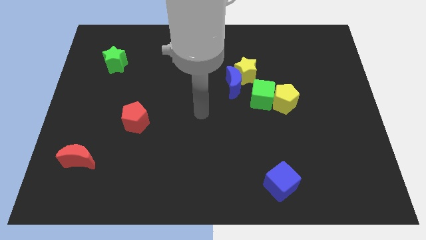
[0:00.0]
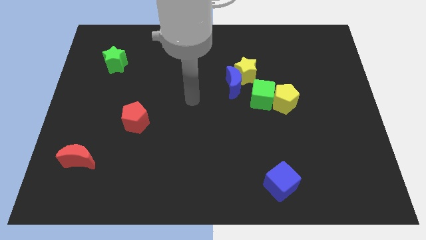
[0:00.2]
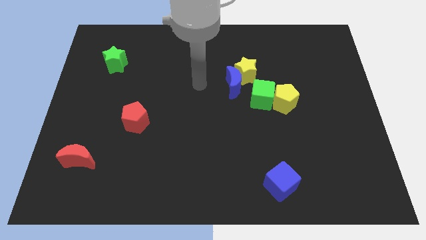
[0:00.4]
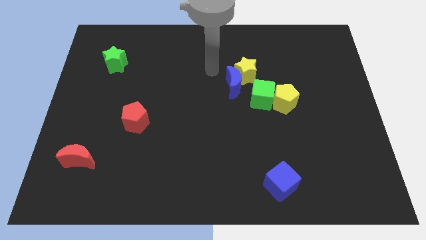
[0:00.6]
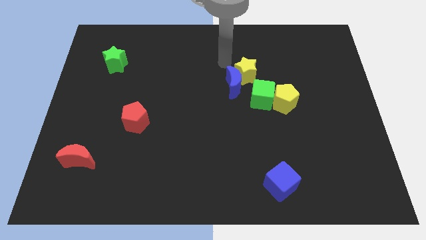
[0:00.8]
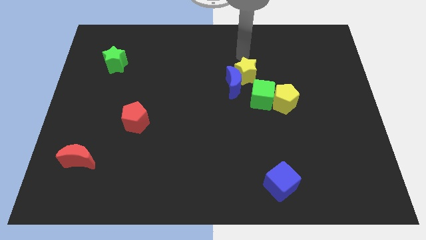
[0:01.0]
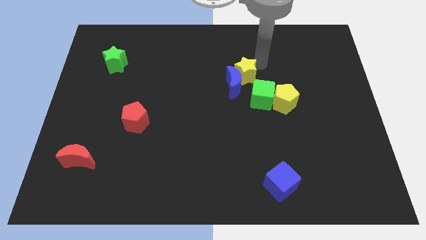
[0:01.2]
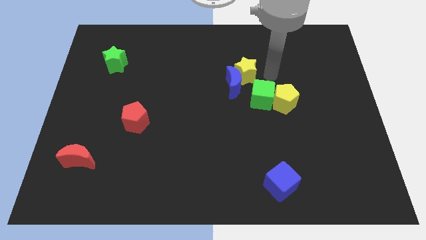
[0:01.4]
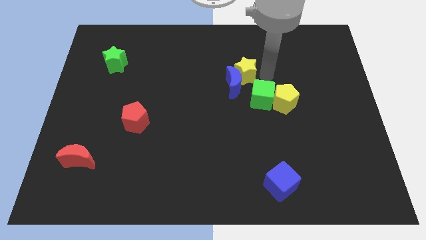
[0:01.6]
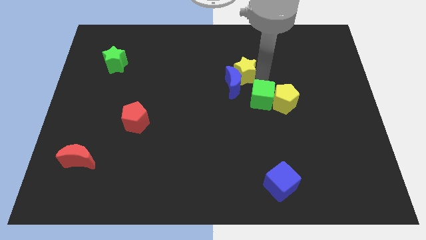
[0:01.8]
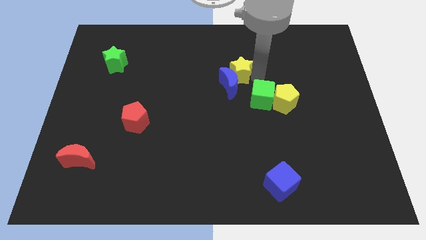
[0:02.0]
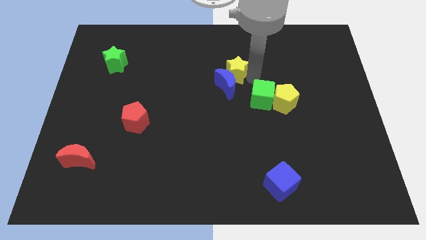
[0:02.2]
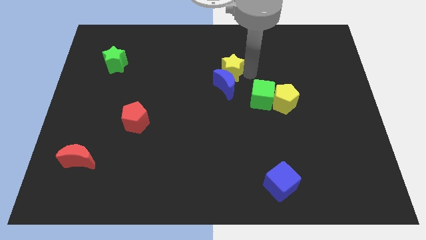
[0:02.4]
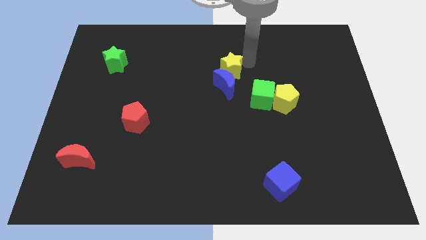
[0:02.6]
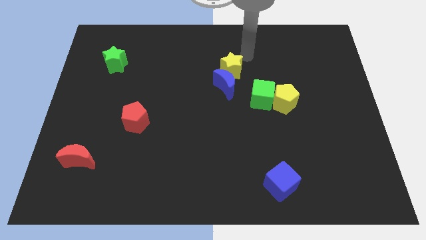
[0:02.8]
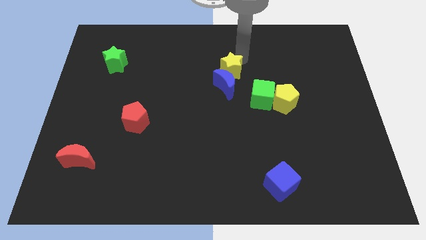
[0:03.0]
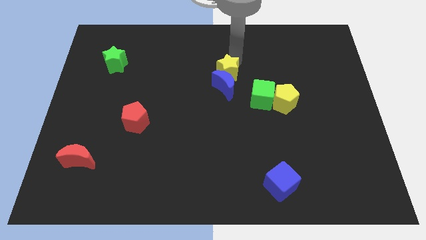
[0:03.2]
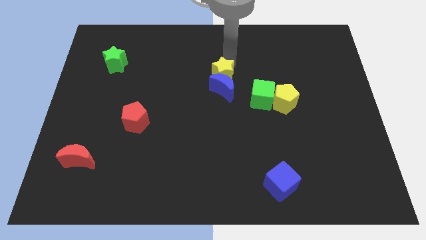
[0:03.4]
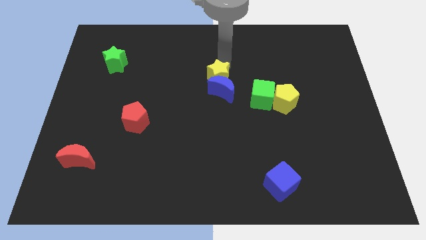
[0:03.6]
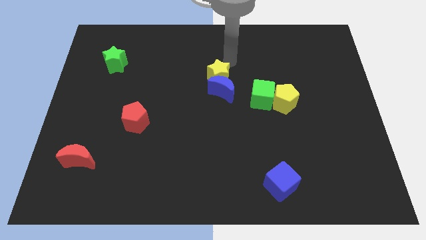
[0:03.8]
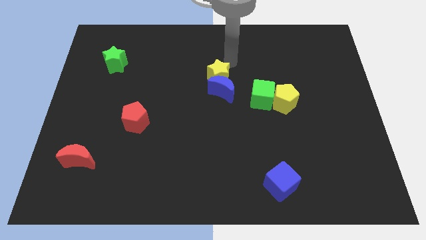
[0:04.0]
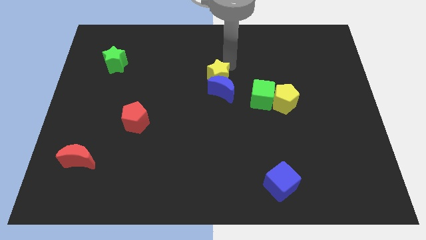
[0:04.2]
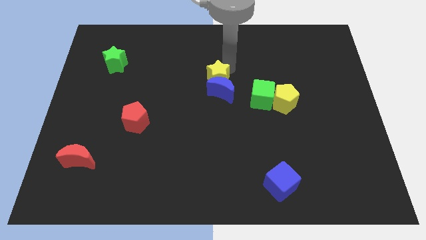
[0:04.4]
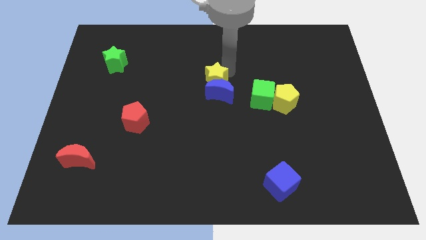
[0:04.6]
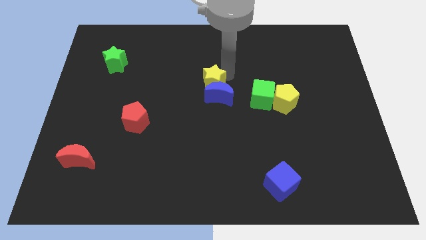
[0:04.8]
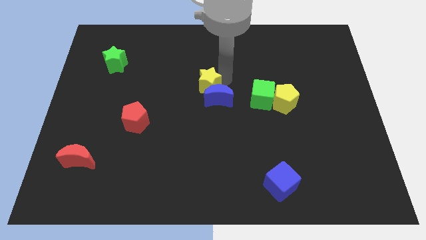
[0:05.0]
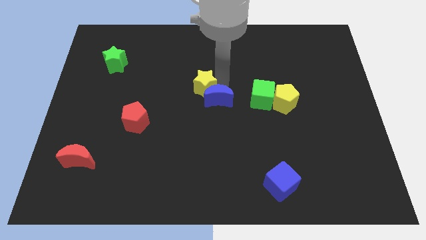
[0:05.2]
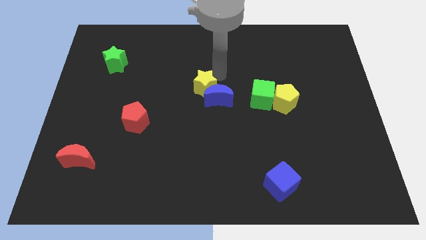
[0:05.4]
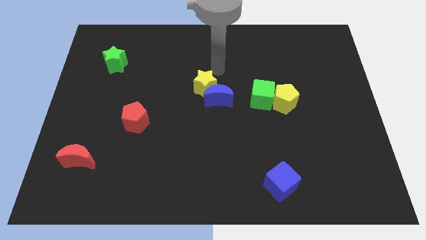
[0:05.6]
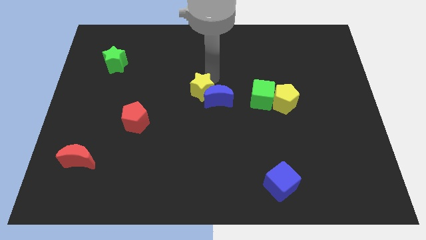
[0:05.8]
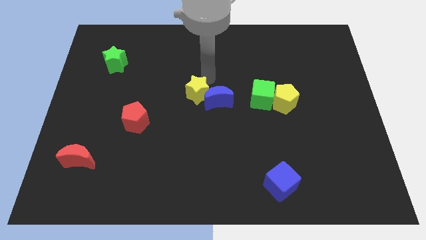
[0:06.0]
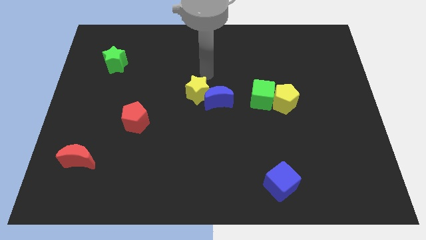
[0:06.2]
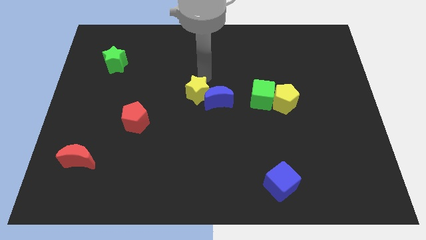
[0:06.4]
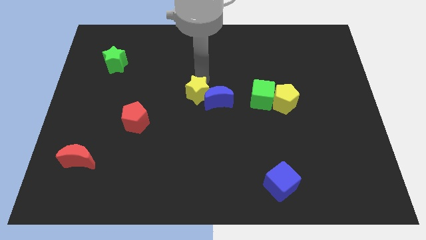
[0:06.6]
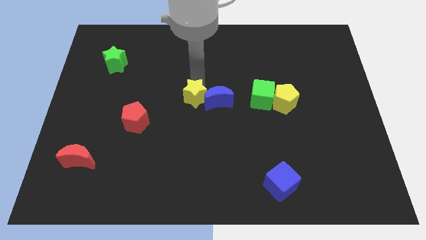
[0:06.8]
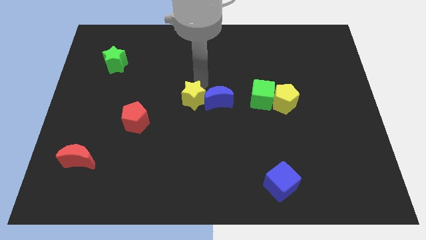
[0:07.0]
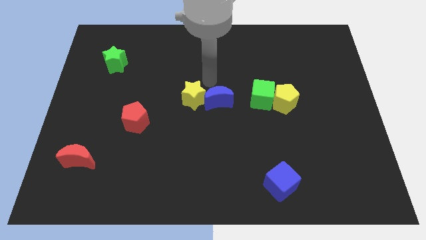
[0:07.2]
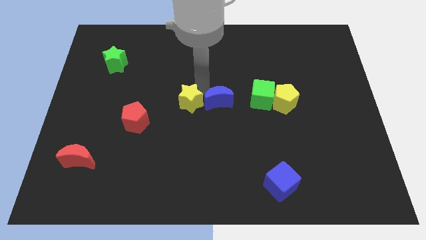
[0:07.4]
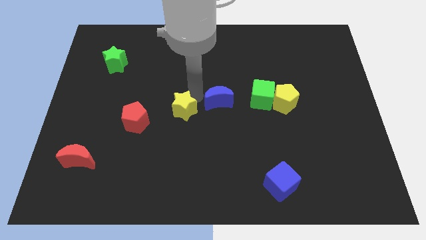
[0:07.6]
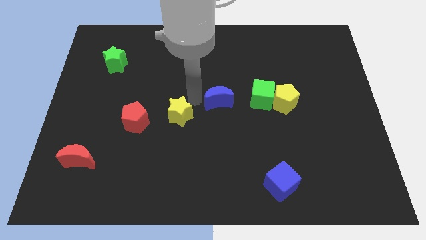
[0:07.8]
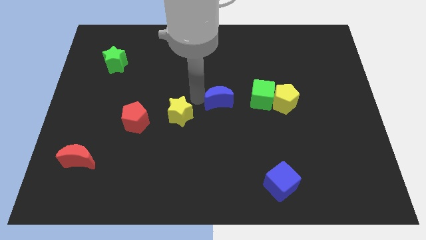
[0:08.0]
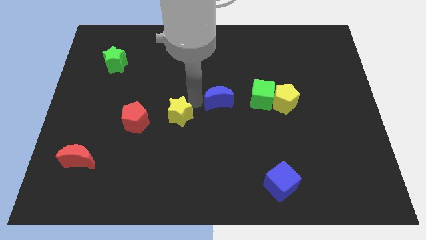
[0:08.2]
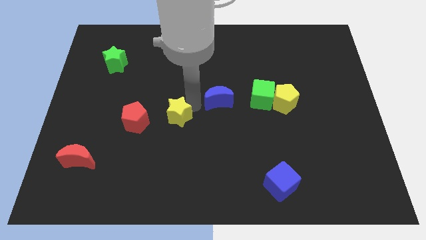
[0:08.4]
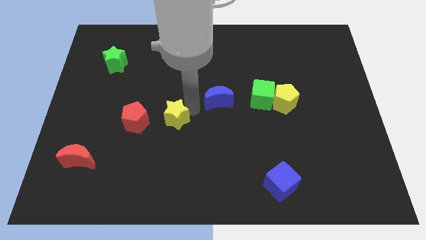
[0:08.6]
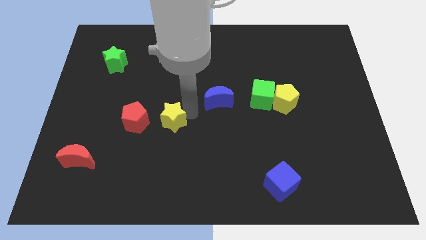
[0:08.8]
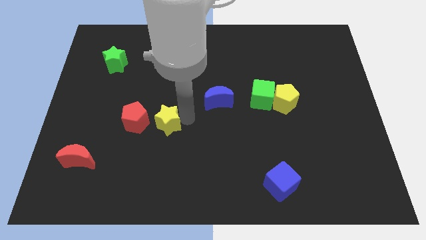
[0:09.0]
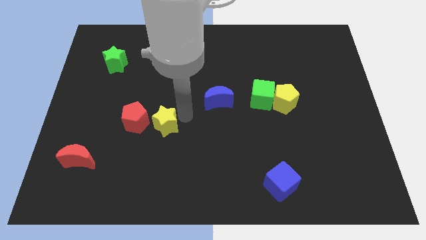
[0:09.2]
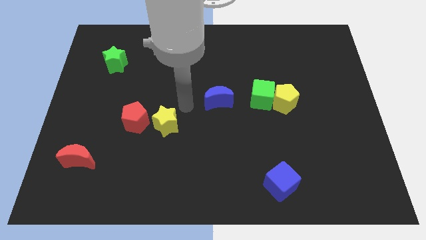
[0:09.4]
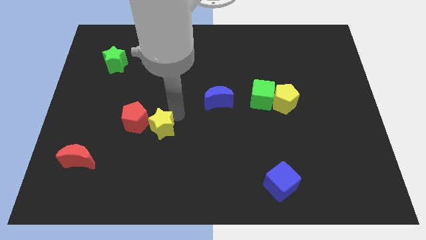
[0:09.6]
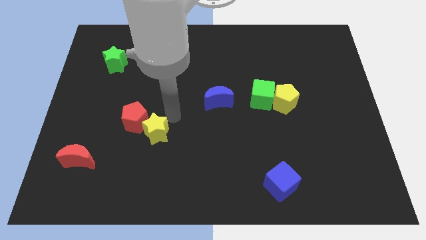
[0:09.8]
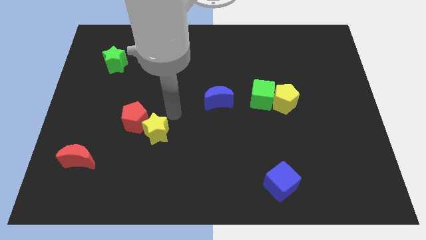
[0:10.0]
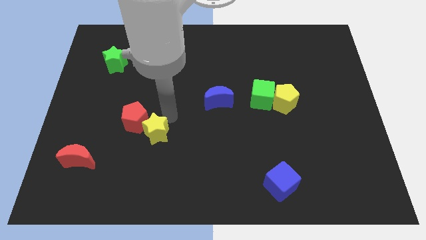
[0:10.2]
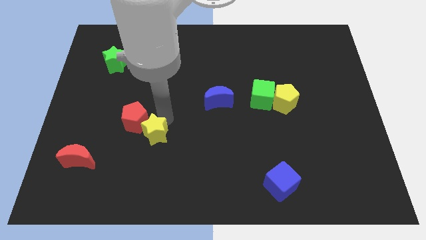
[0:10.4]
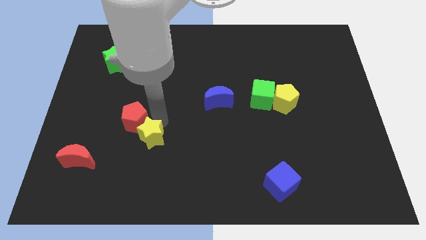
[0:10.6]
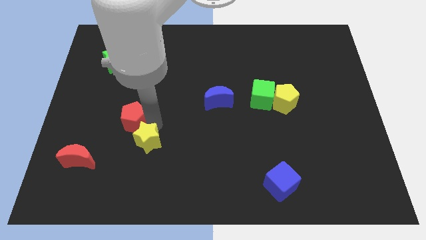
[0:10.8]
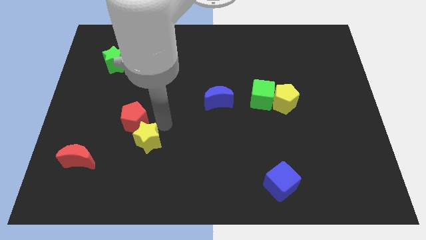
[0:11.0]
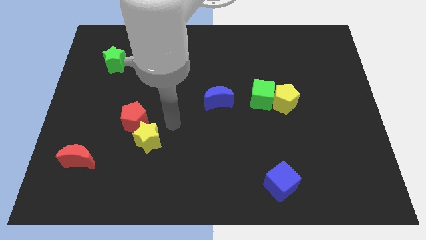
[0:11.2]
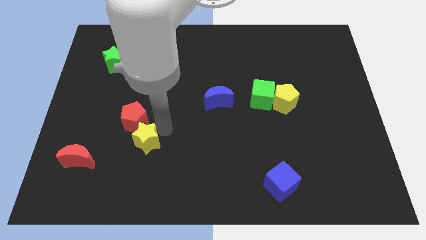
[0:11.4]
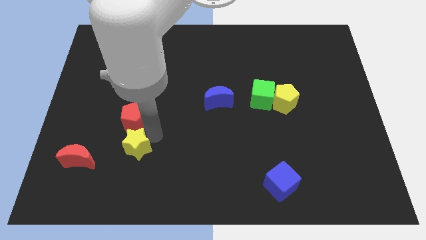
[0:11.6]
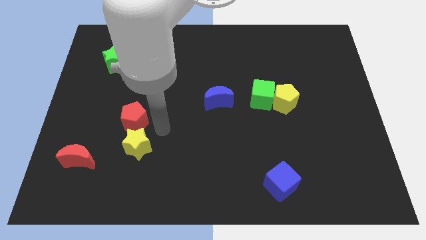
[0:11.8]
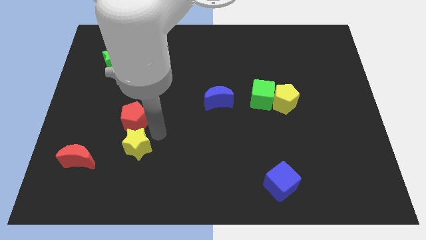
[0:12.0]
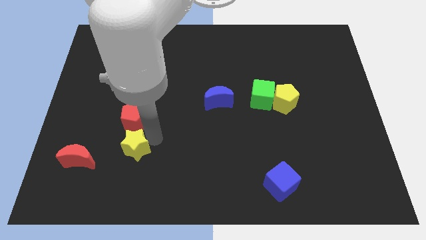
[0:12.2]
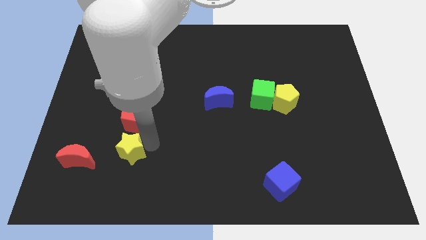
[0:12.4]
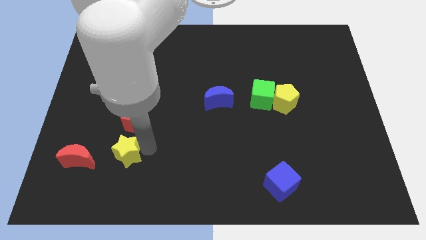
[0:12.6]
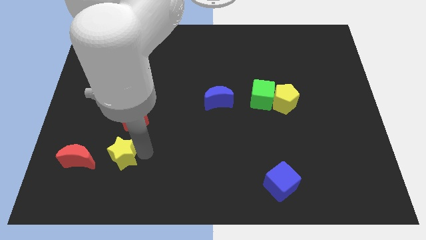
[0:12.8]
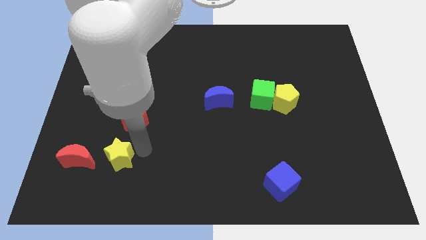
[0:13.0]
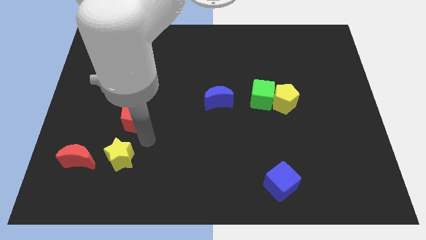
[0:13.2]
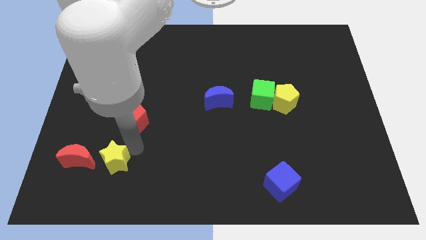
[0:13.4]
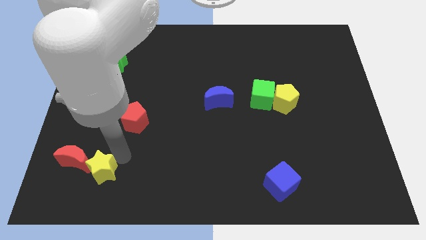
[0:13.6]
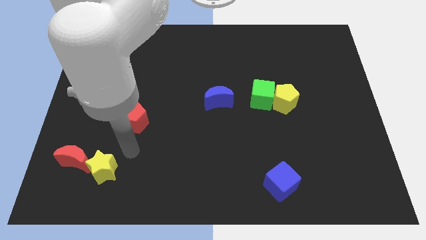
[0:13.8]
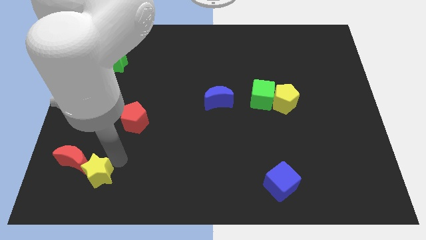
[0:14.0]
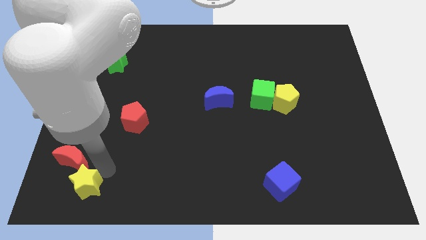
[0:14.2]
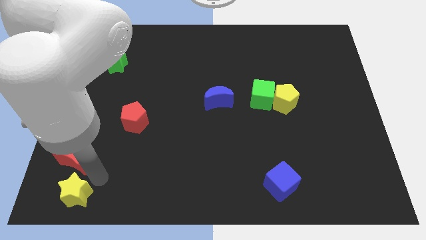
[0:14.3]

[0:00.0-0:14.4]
slide the yellow star to the lower left corner
